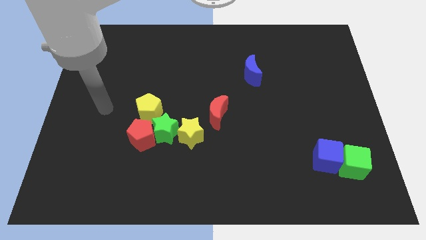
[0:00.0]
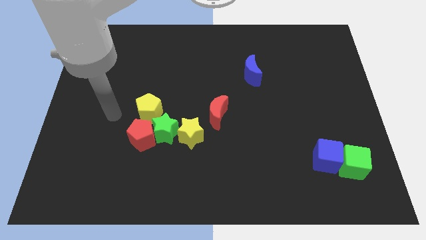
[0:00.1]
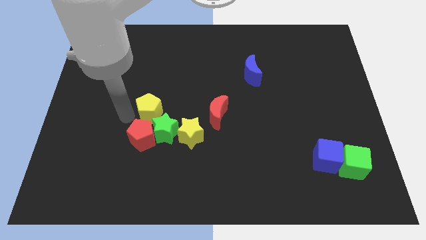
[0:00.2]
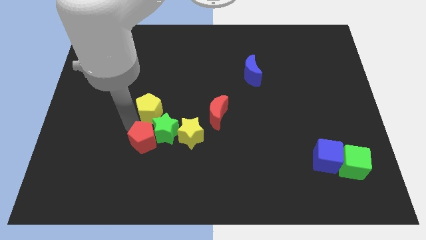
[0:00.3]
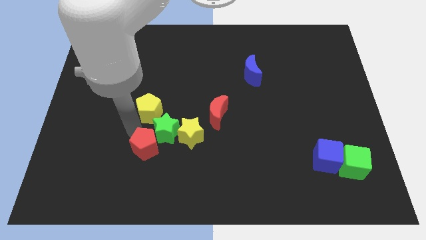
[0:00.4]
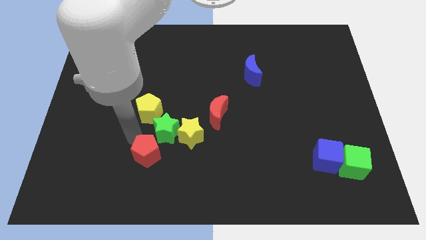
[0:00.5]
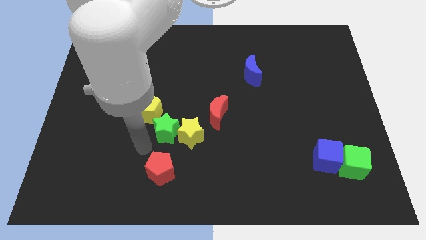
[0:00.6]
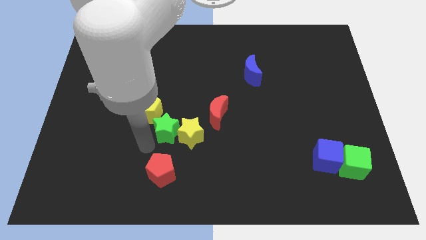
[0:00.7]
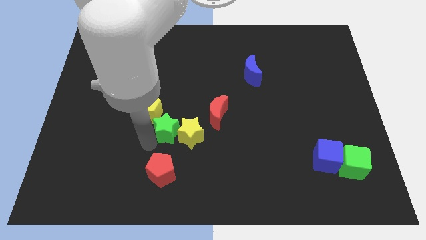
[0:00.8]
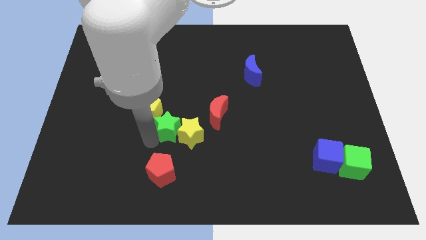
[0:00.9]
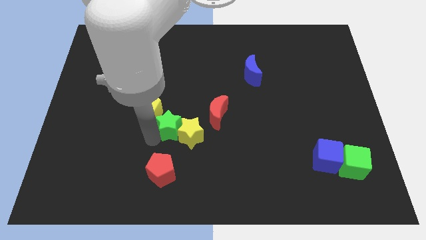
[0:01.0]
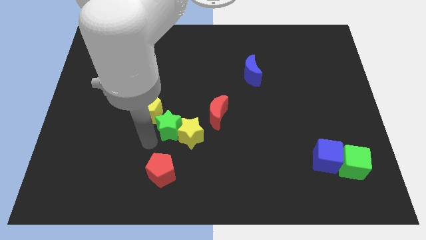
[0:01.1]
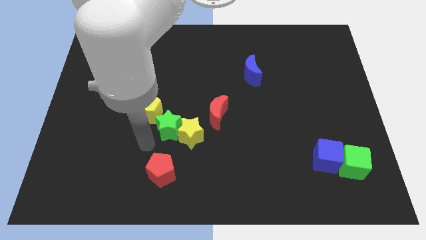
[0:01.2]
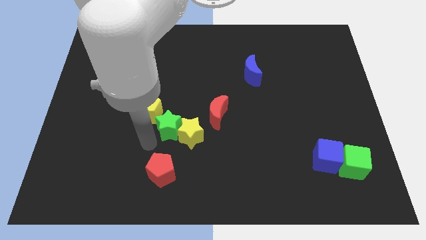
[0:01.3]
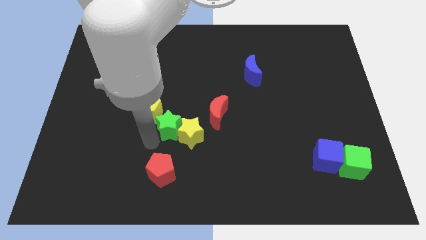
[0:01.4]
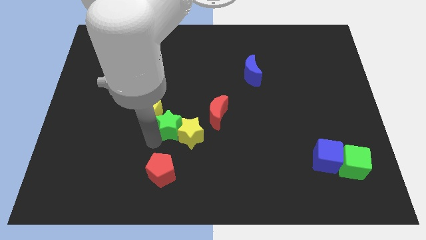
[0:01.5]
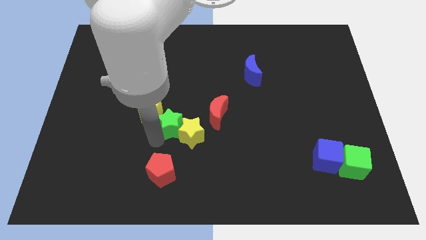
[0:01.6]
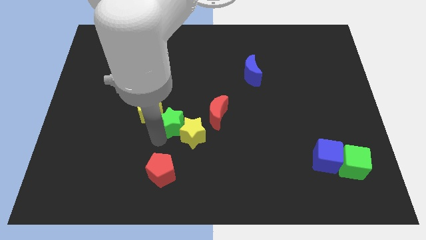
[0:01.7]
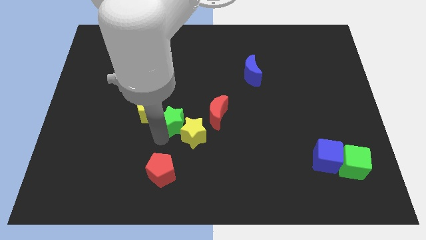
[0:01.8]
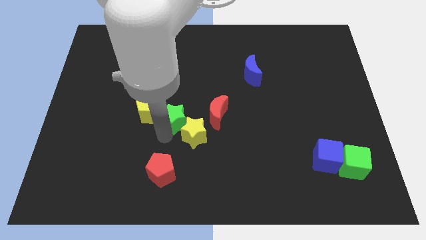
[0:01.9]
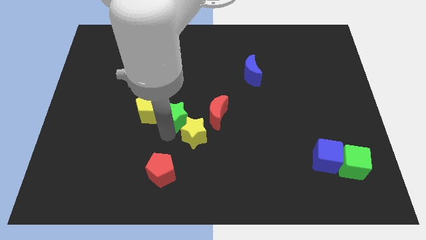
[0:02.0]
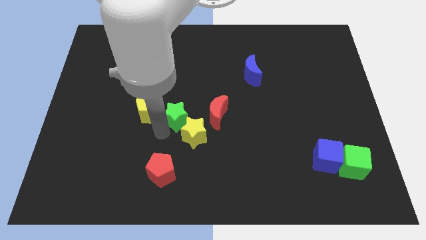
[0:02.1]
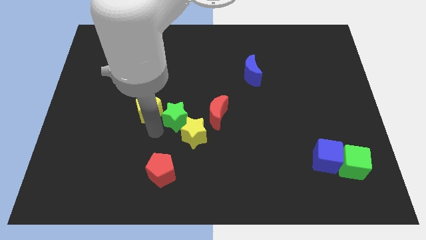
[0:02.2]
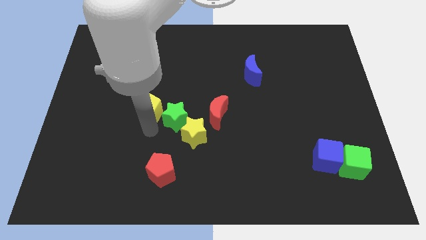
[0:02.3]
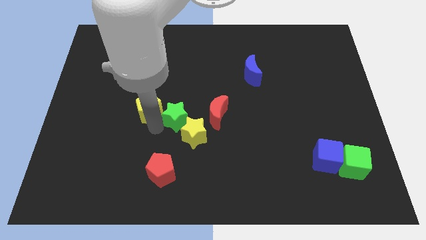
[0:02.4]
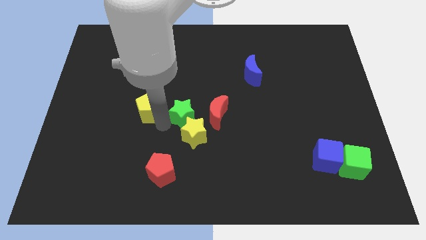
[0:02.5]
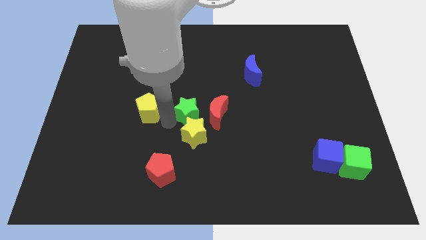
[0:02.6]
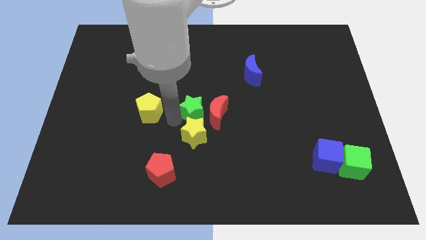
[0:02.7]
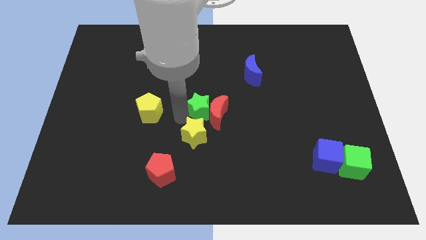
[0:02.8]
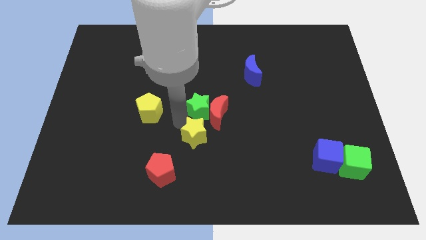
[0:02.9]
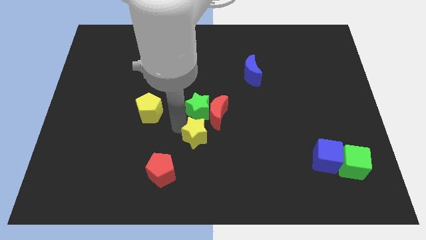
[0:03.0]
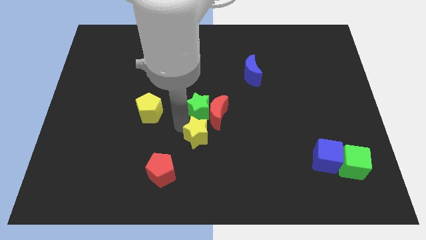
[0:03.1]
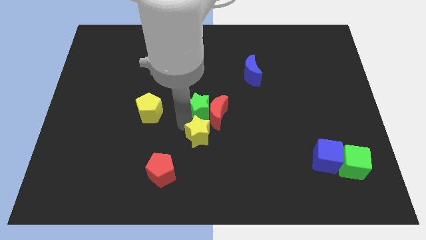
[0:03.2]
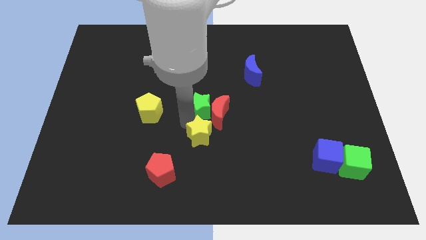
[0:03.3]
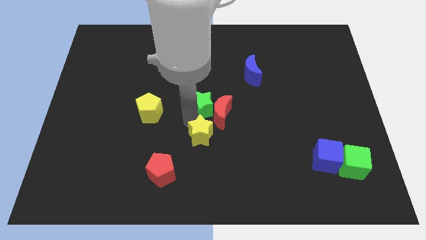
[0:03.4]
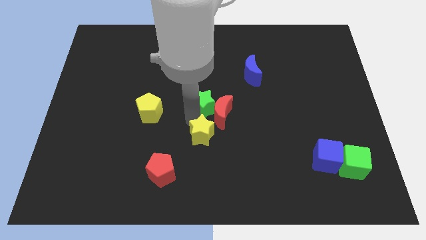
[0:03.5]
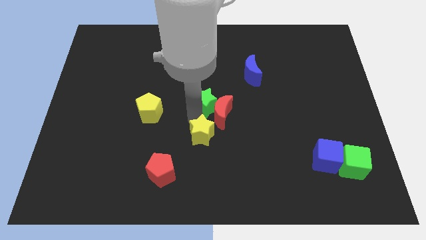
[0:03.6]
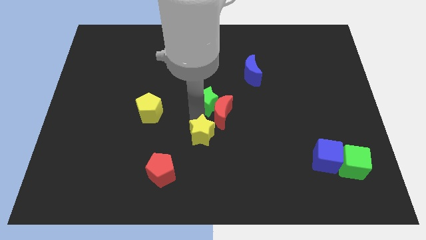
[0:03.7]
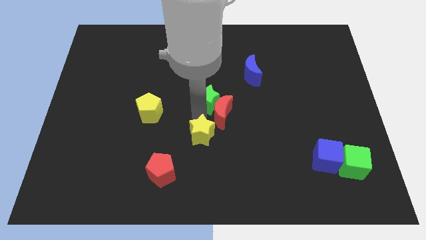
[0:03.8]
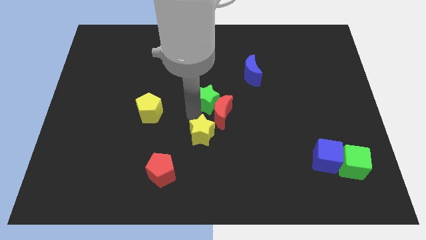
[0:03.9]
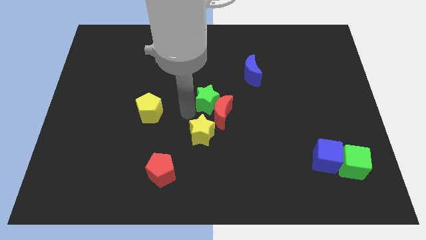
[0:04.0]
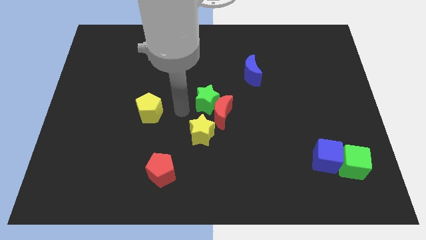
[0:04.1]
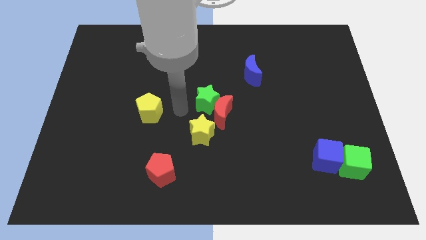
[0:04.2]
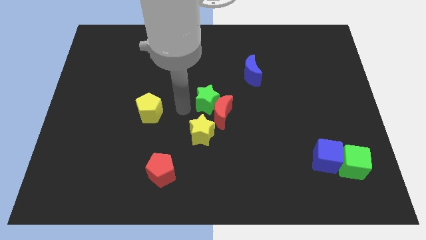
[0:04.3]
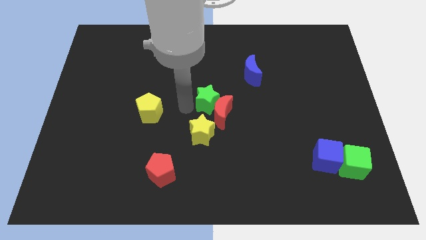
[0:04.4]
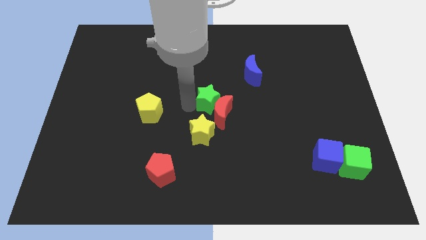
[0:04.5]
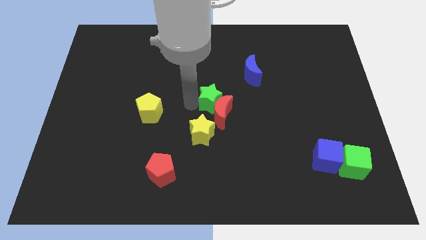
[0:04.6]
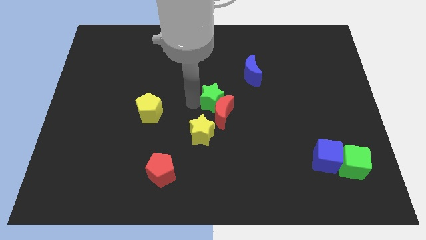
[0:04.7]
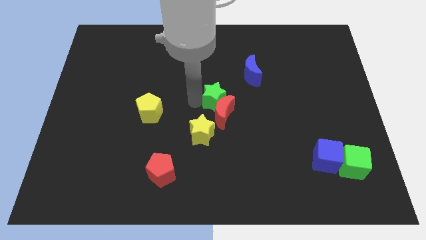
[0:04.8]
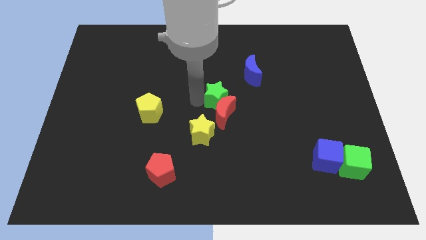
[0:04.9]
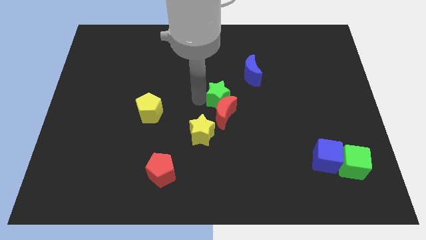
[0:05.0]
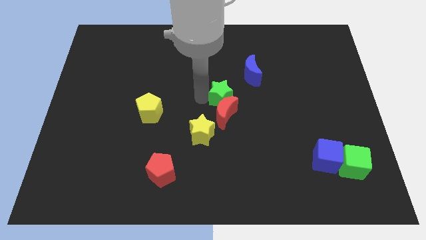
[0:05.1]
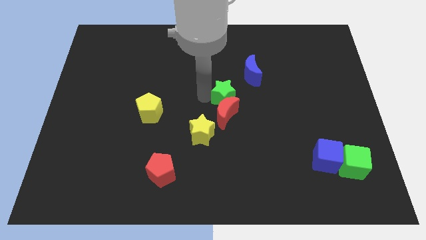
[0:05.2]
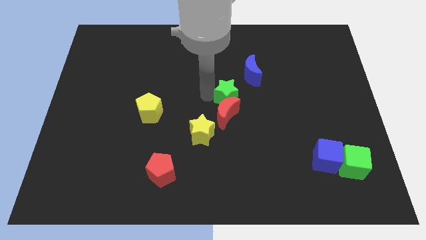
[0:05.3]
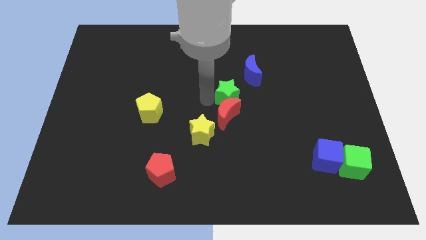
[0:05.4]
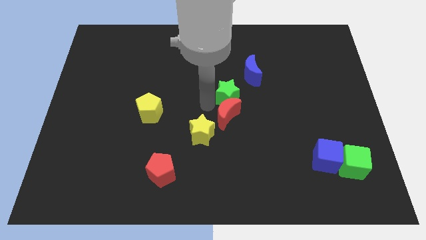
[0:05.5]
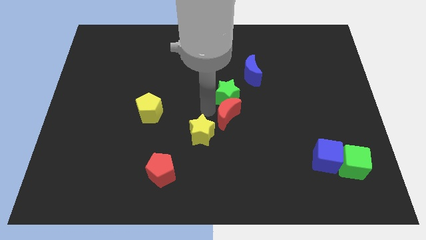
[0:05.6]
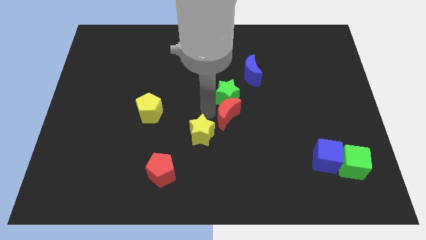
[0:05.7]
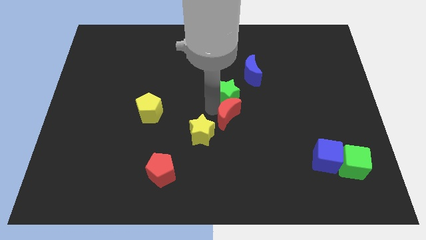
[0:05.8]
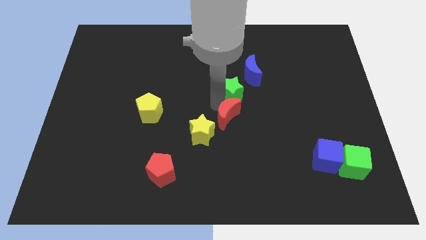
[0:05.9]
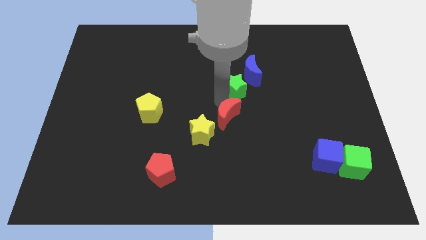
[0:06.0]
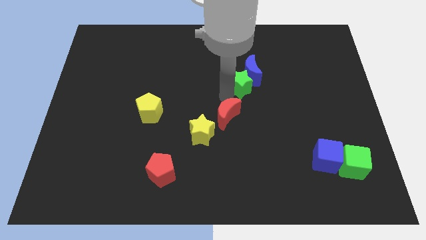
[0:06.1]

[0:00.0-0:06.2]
push the green star next to the blue moon

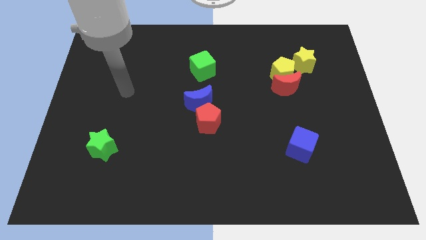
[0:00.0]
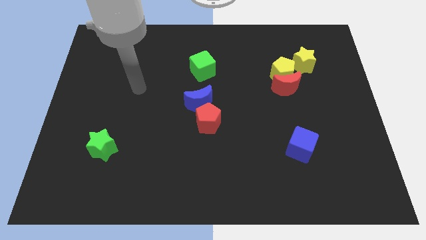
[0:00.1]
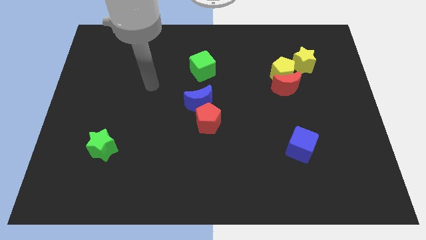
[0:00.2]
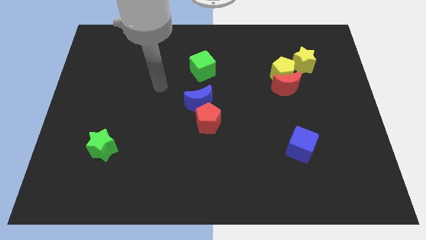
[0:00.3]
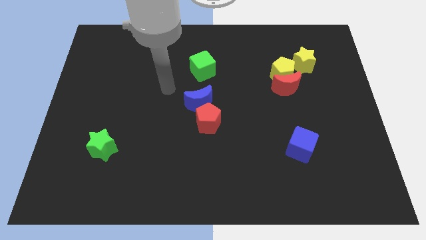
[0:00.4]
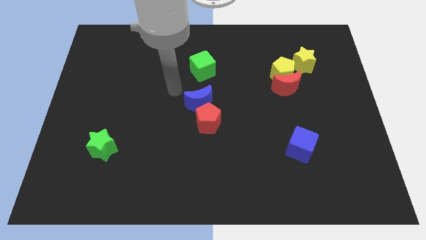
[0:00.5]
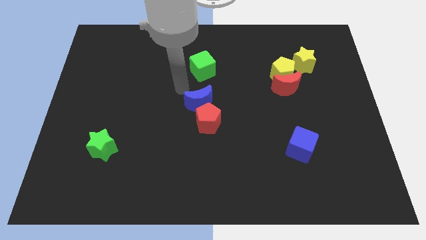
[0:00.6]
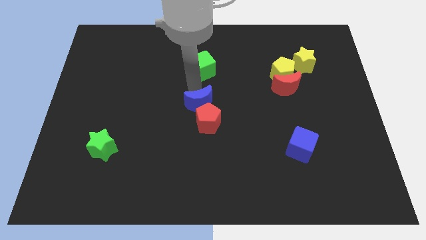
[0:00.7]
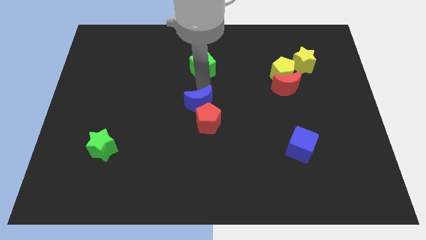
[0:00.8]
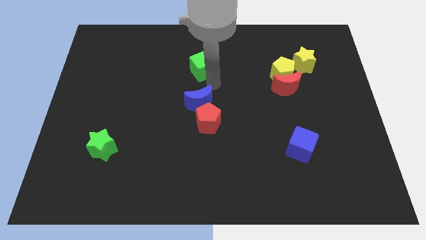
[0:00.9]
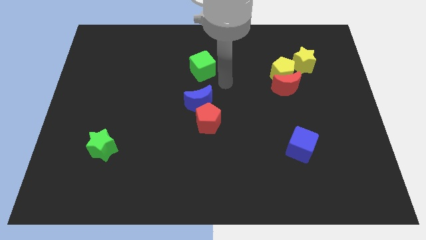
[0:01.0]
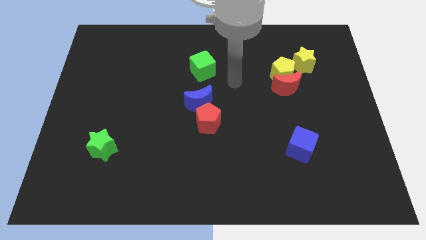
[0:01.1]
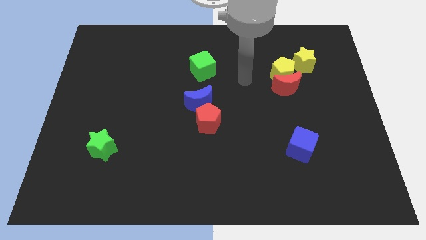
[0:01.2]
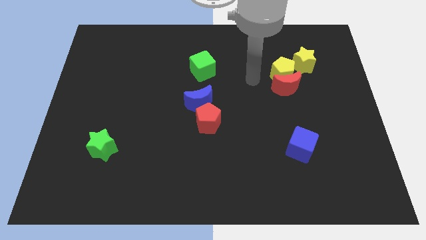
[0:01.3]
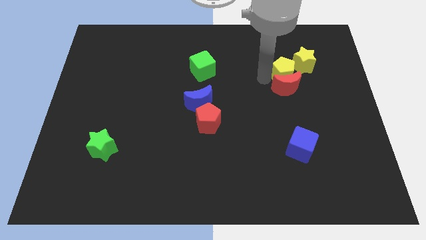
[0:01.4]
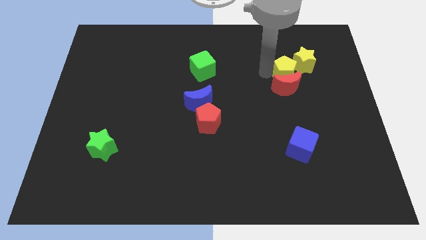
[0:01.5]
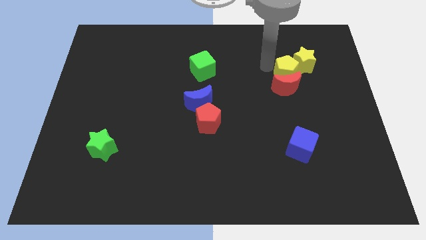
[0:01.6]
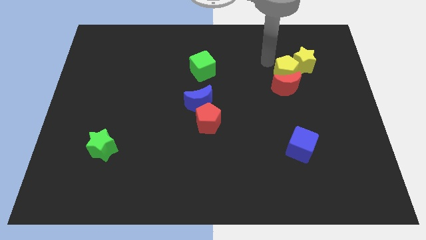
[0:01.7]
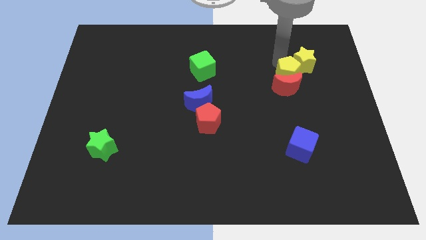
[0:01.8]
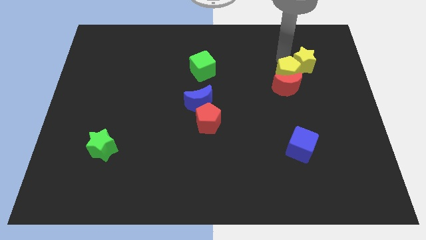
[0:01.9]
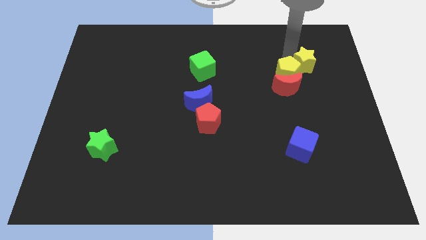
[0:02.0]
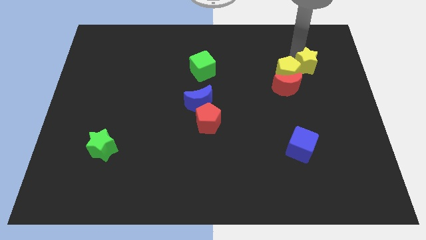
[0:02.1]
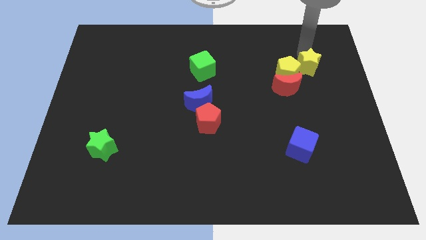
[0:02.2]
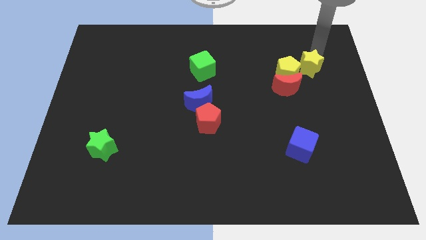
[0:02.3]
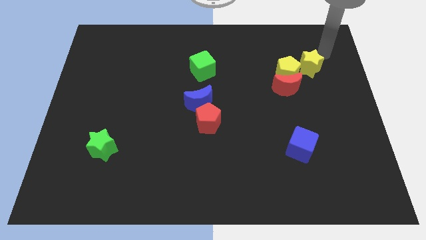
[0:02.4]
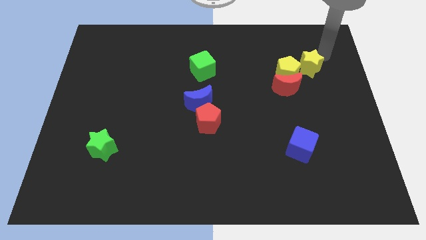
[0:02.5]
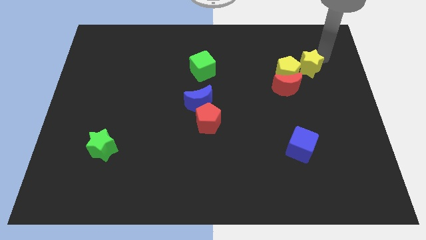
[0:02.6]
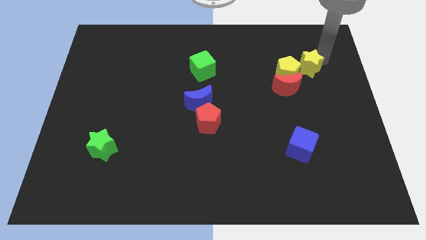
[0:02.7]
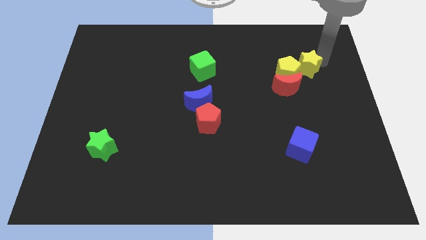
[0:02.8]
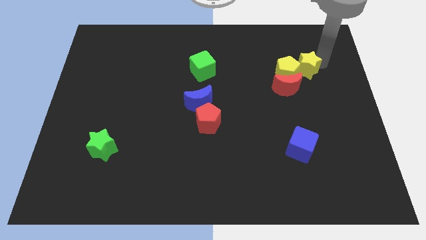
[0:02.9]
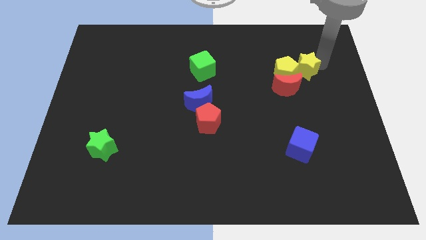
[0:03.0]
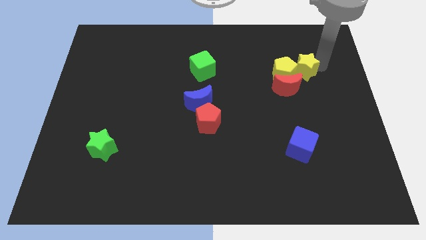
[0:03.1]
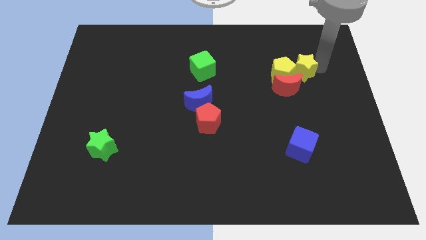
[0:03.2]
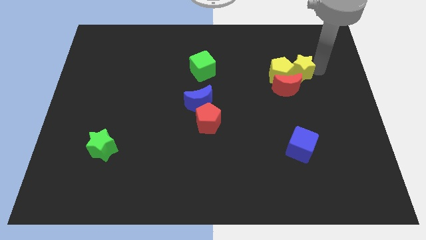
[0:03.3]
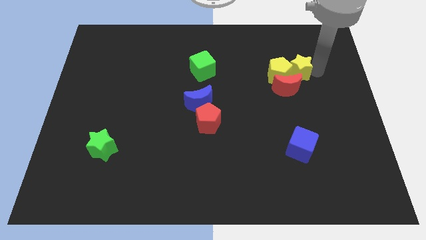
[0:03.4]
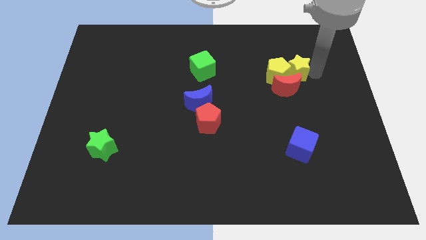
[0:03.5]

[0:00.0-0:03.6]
push the yellow star next to the red moon
